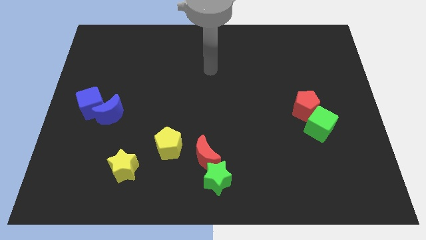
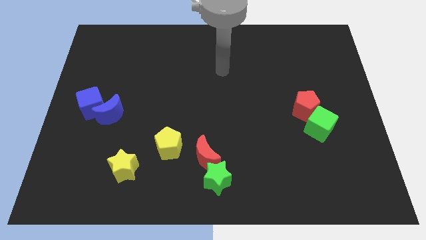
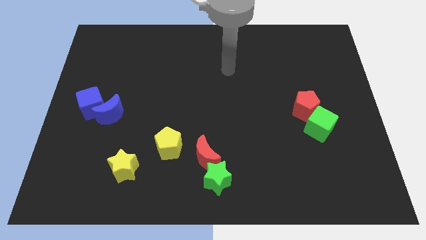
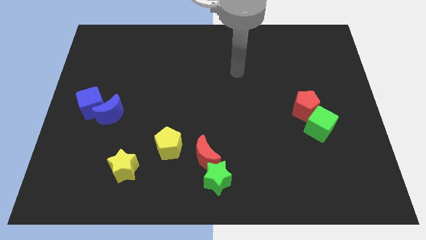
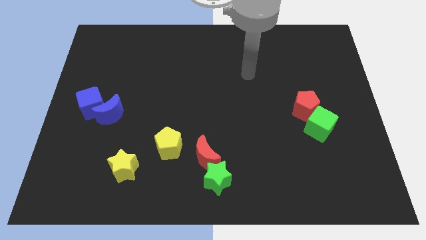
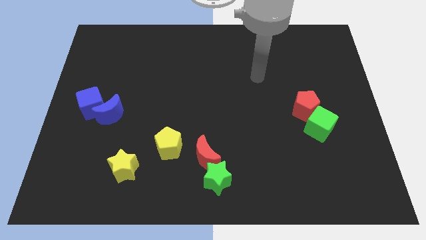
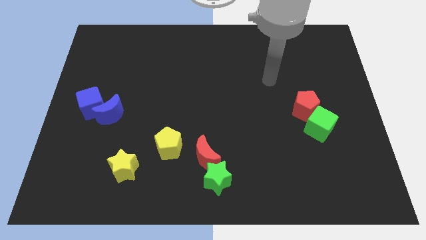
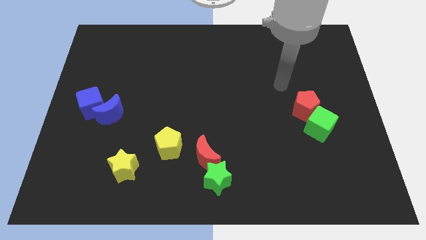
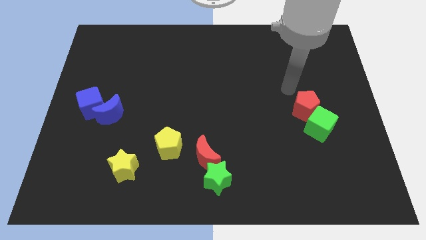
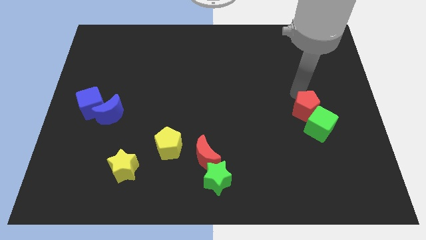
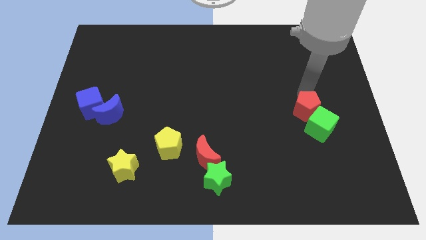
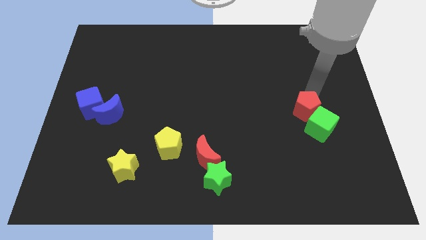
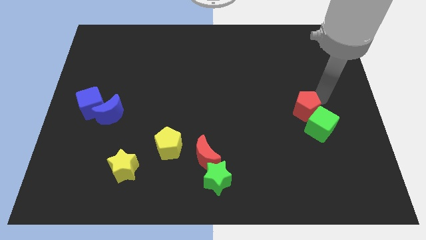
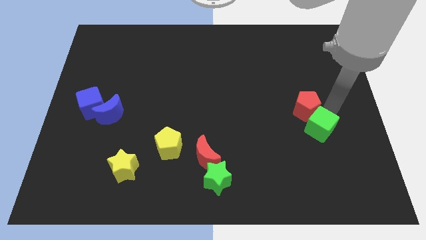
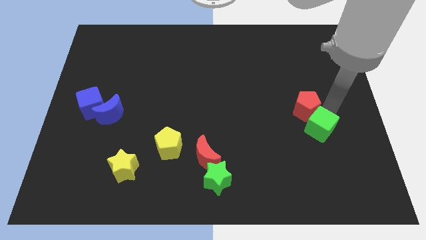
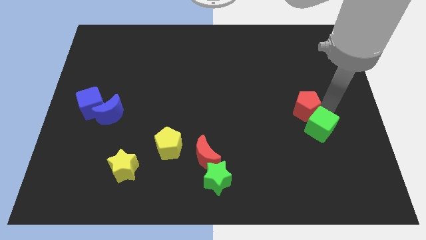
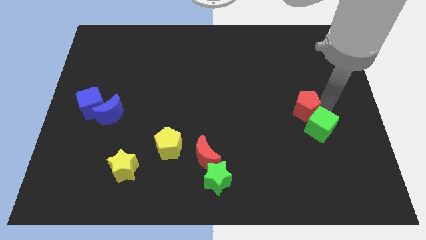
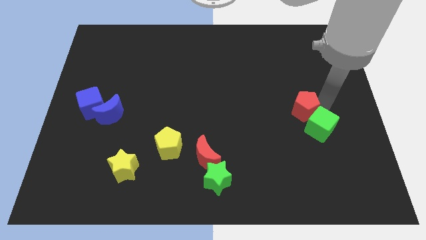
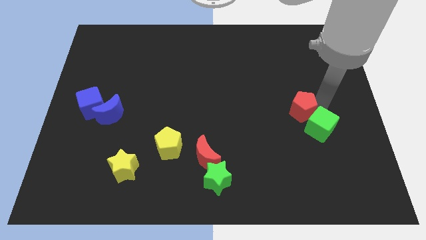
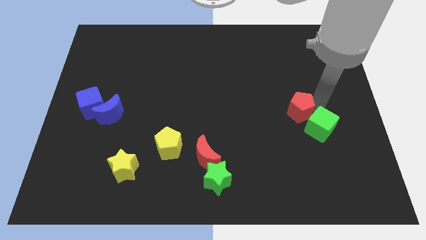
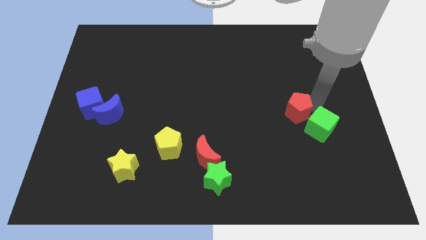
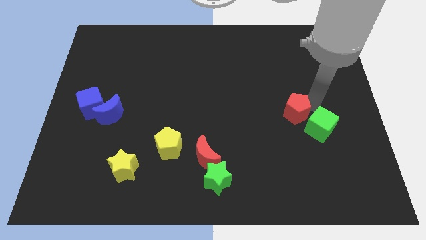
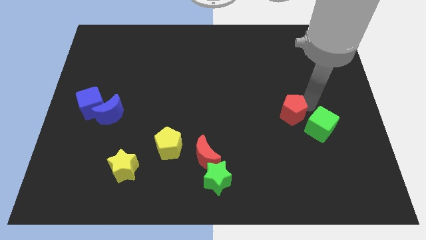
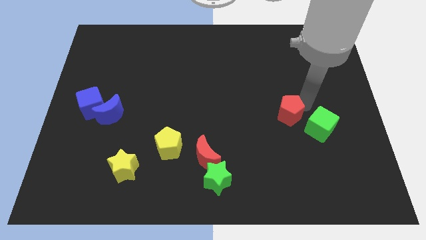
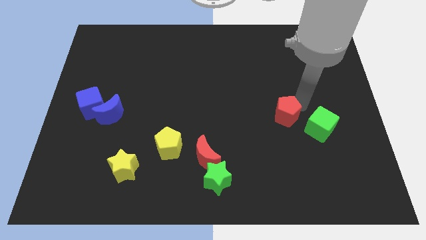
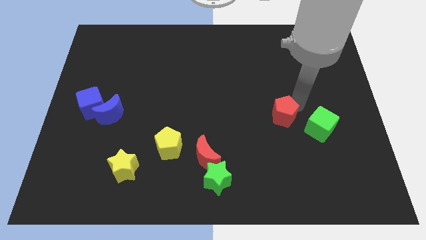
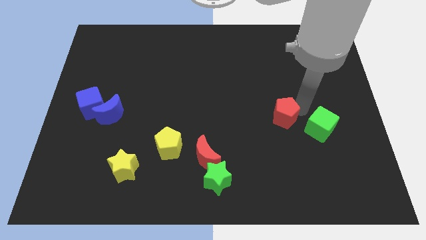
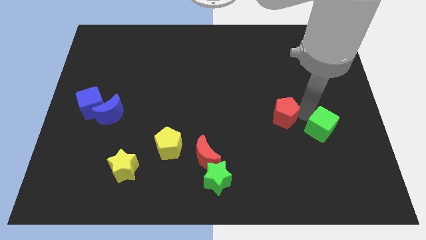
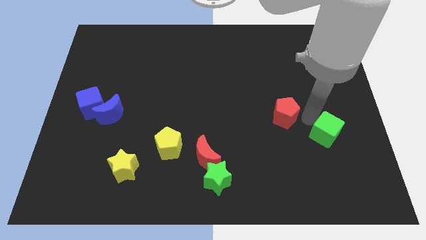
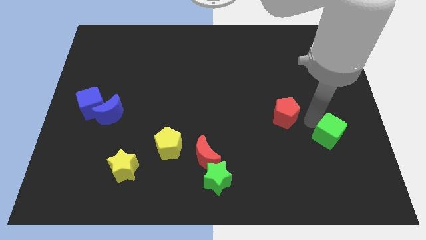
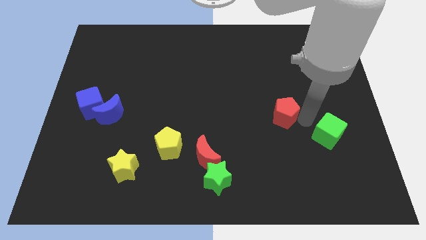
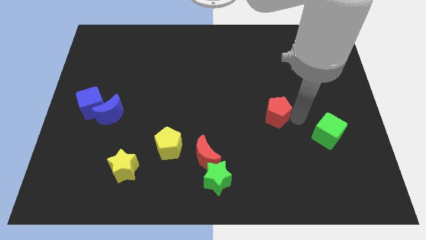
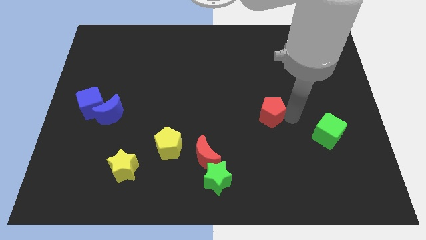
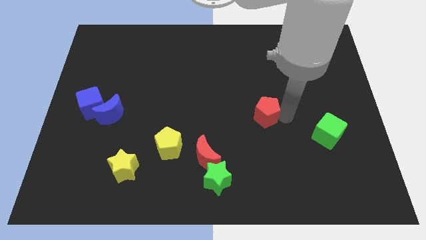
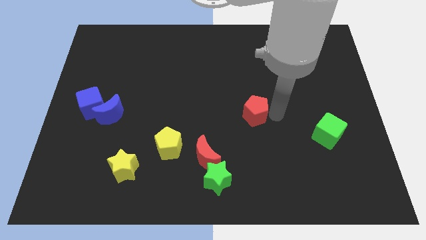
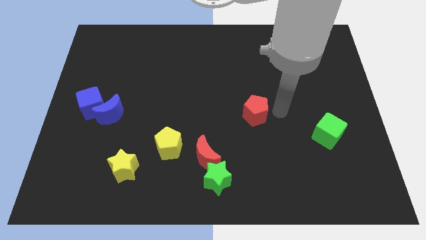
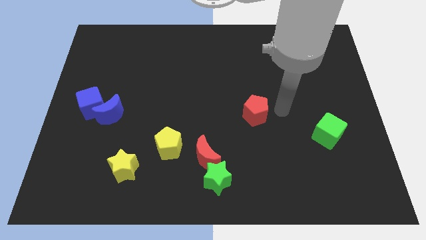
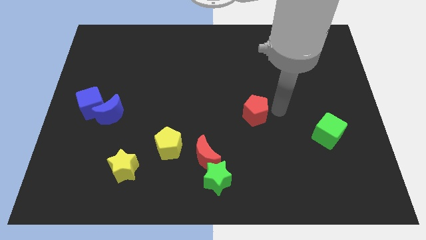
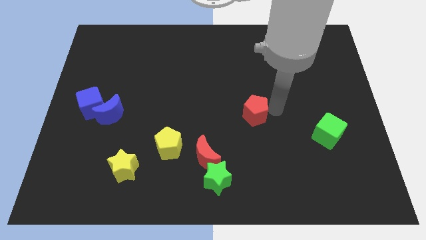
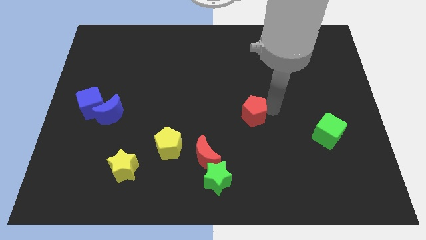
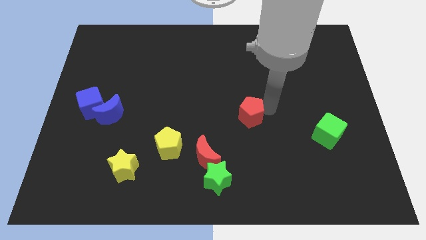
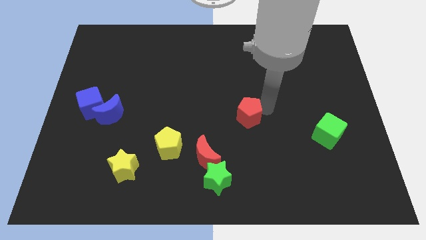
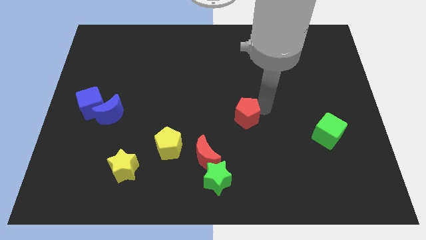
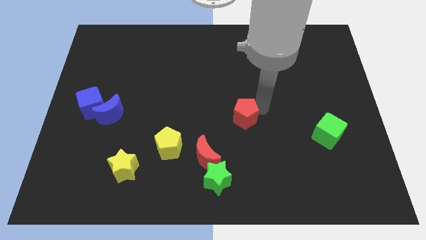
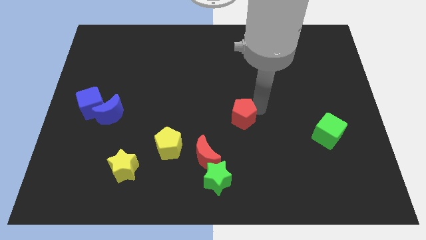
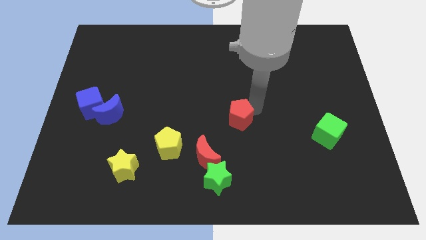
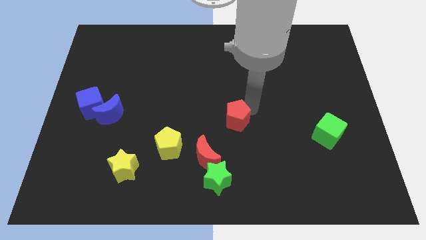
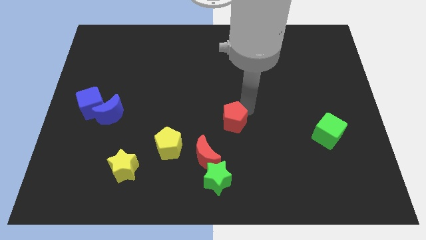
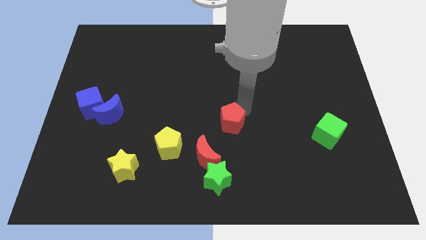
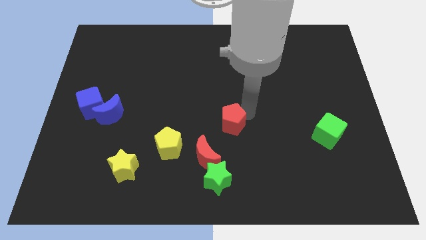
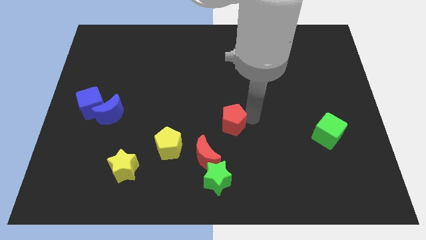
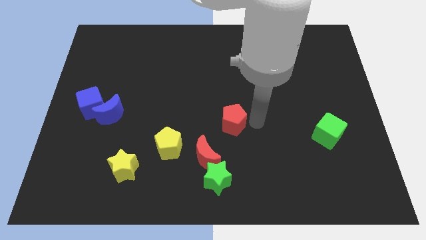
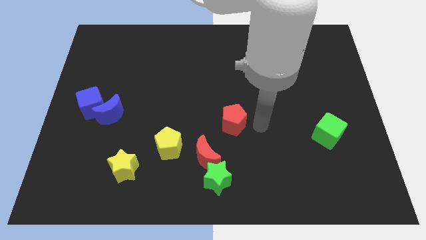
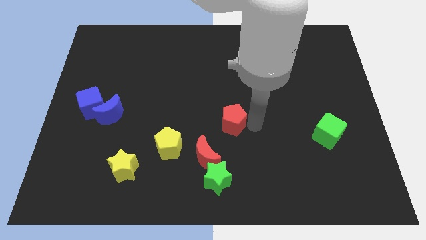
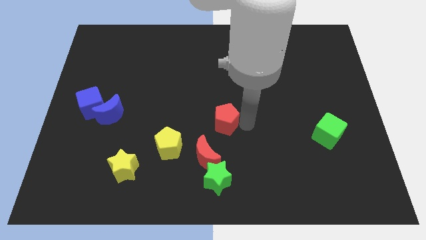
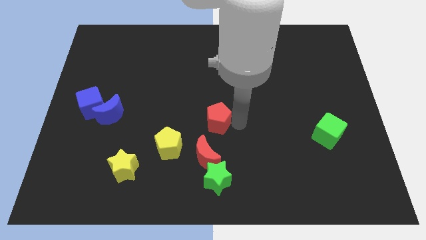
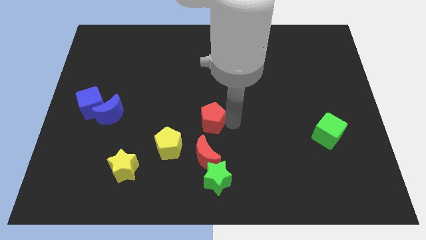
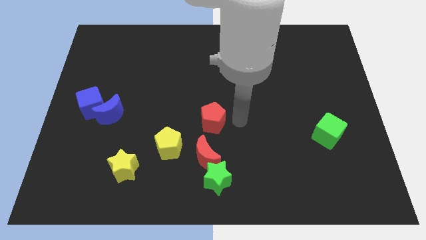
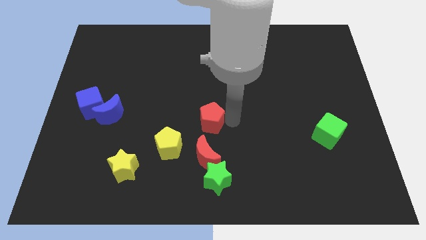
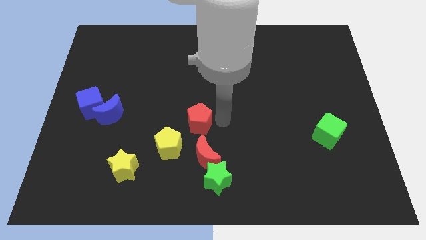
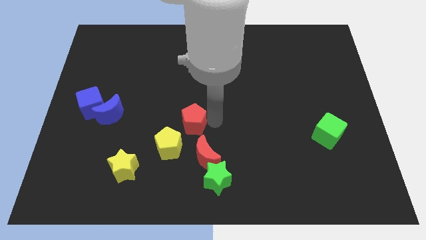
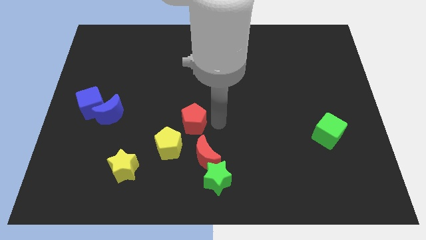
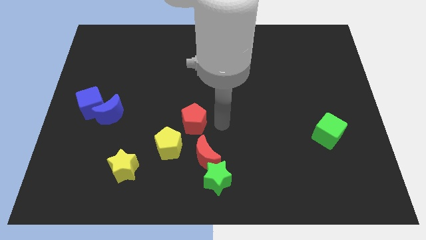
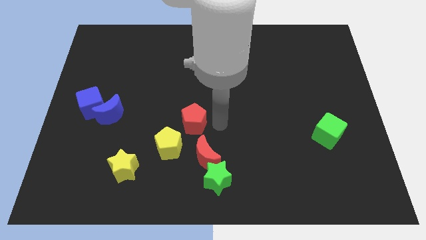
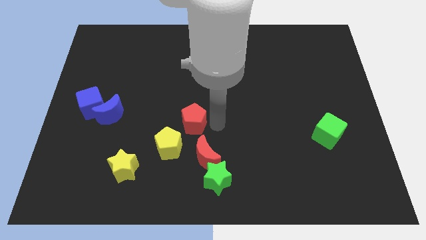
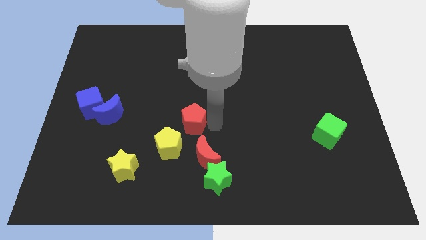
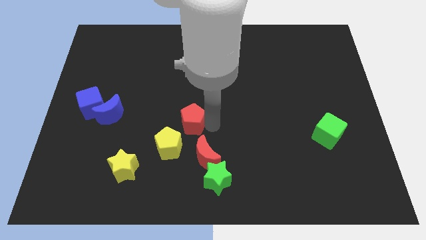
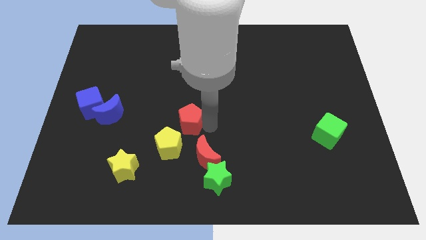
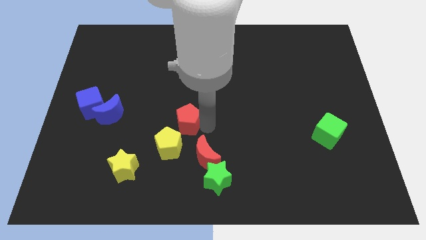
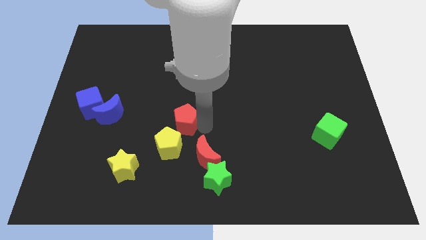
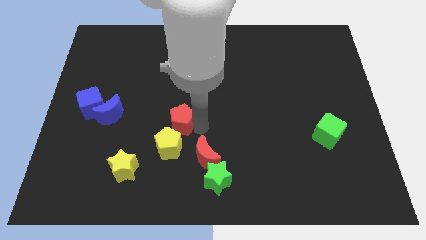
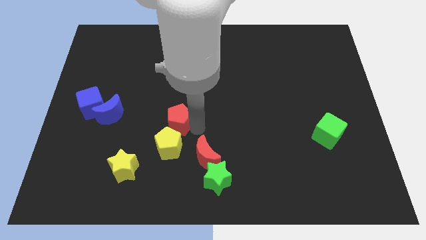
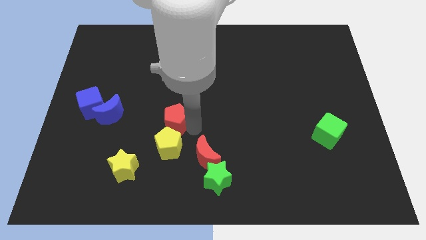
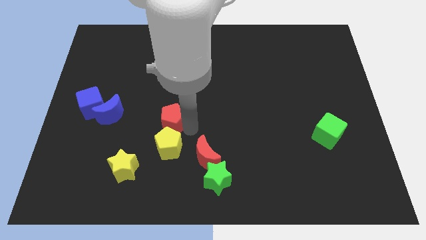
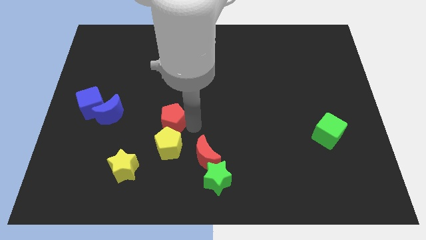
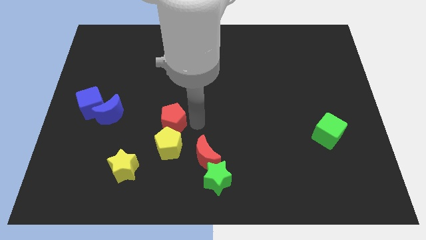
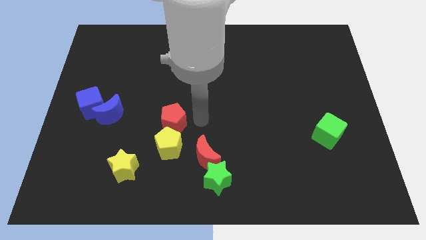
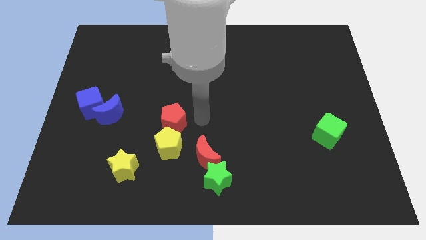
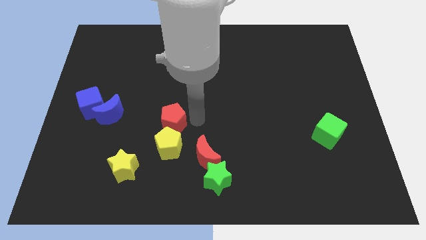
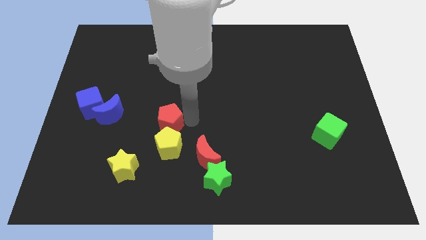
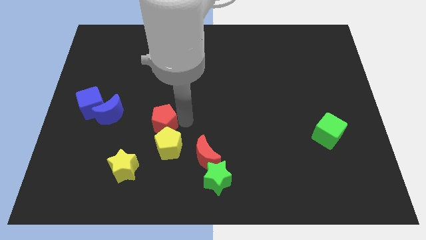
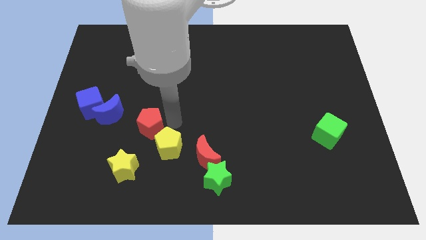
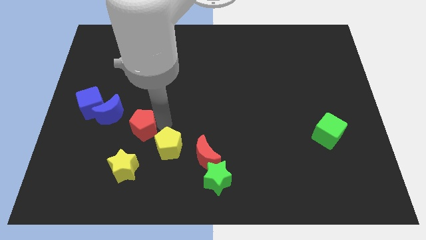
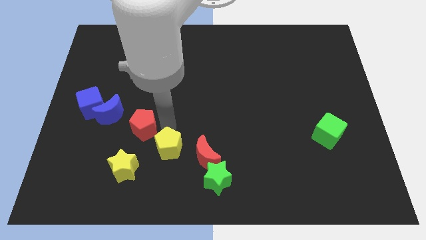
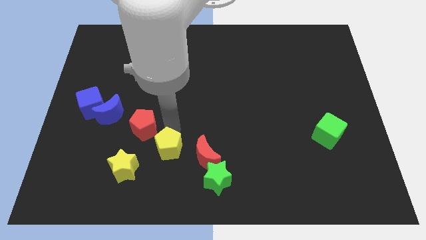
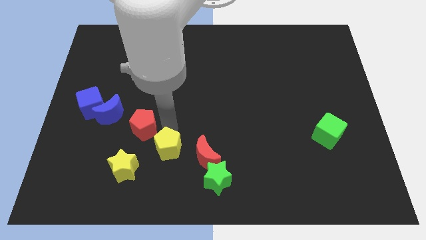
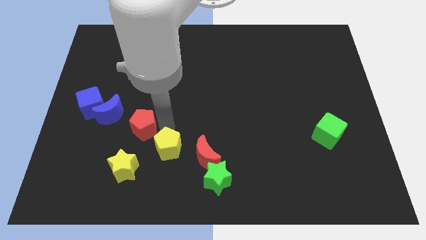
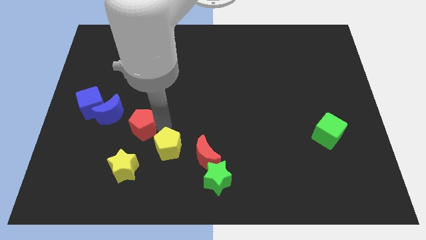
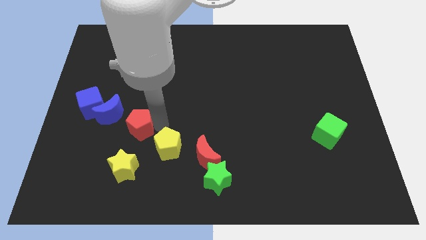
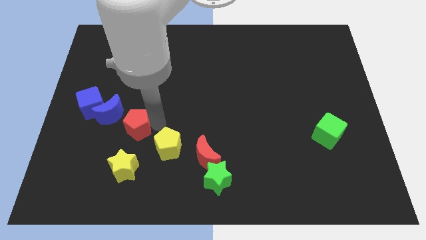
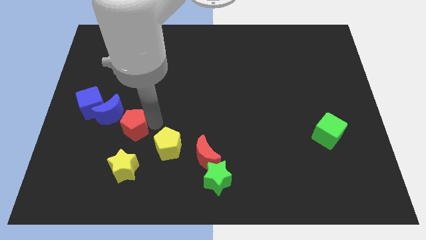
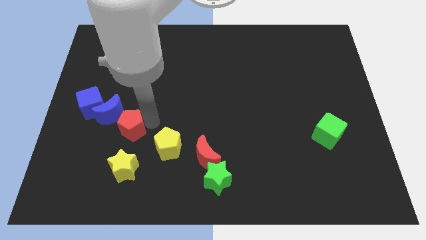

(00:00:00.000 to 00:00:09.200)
move the red pentagon to the bottom right side of the blue cube
